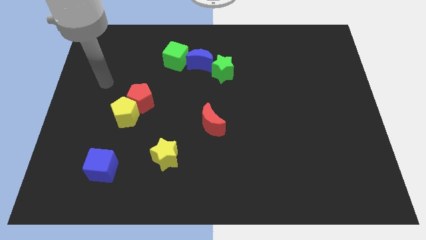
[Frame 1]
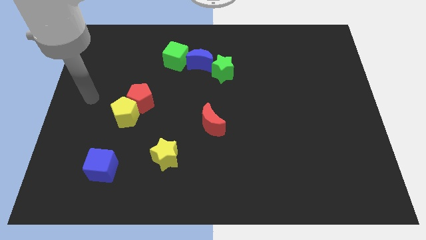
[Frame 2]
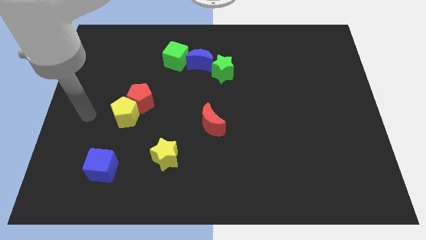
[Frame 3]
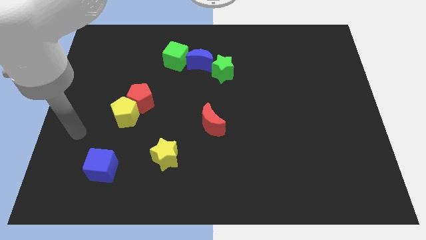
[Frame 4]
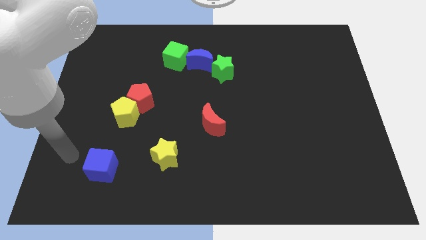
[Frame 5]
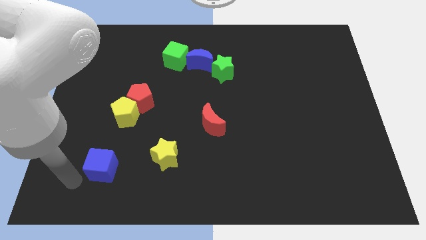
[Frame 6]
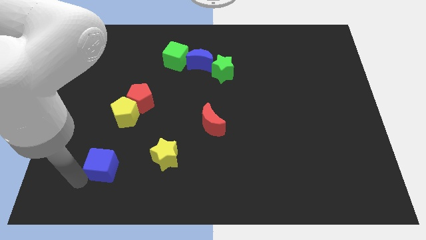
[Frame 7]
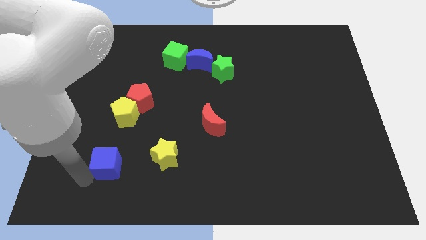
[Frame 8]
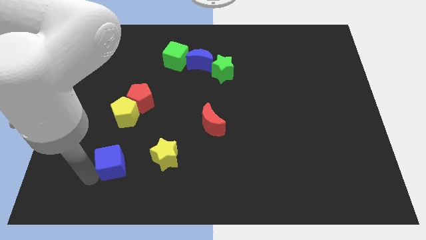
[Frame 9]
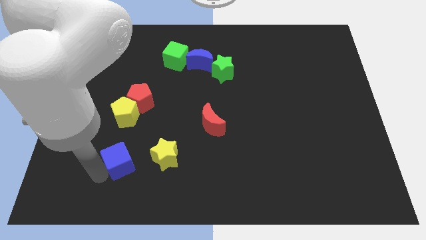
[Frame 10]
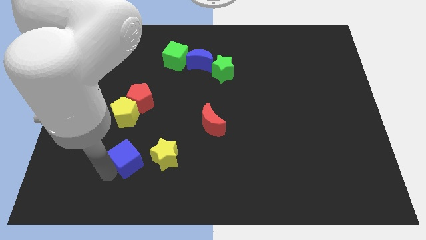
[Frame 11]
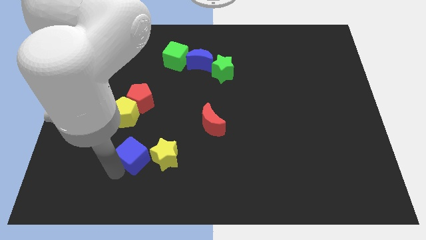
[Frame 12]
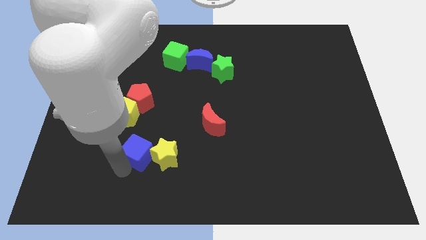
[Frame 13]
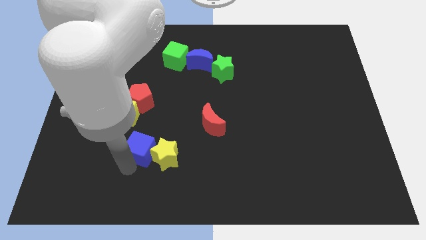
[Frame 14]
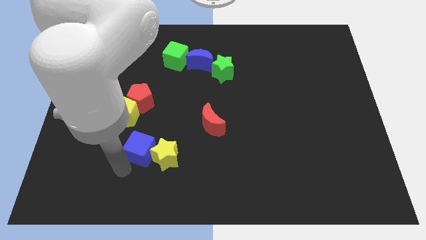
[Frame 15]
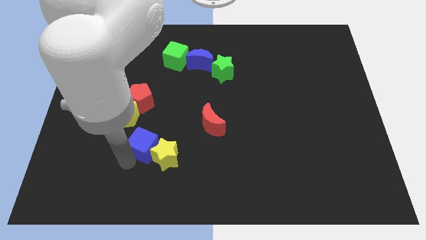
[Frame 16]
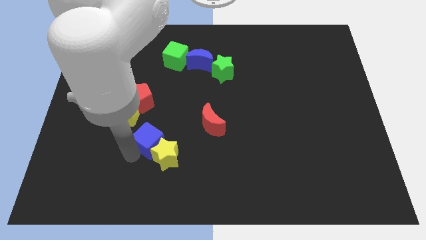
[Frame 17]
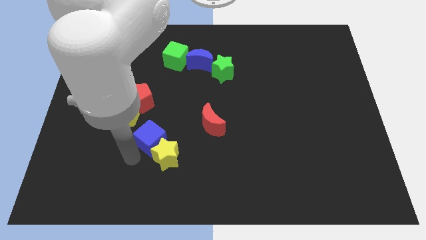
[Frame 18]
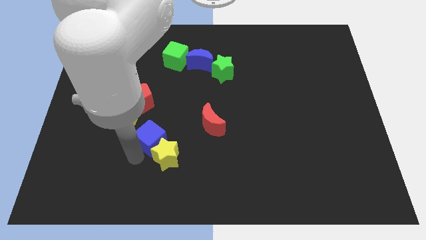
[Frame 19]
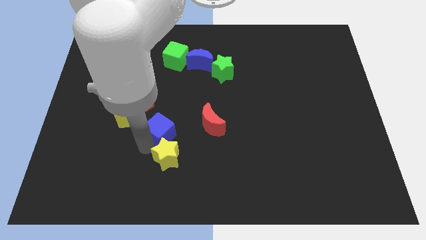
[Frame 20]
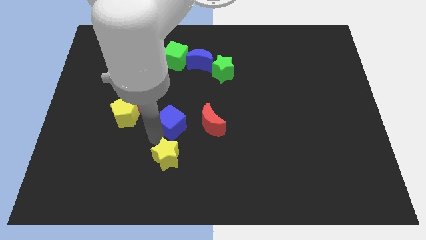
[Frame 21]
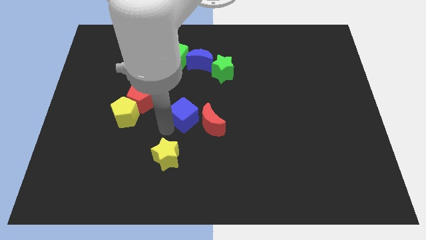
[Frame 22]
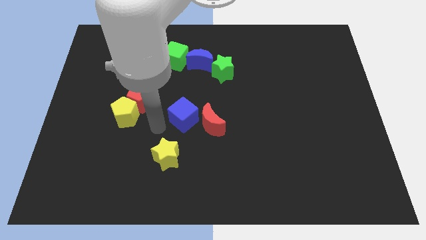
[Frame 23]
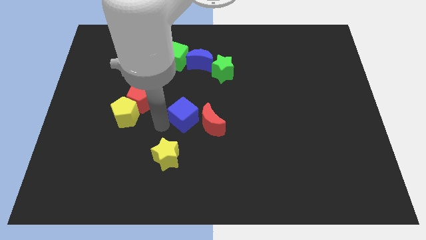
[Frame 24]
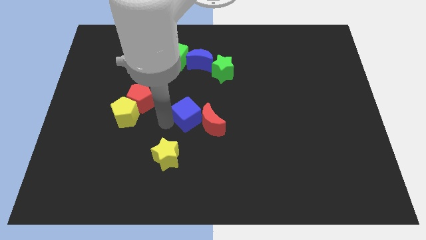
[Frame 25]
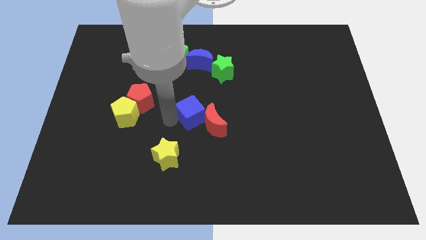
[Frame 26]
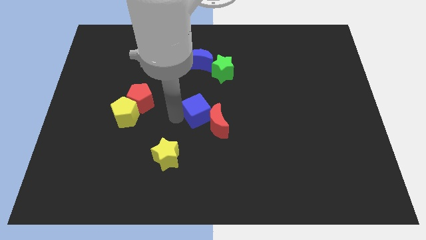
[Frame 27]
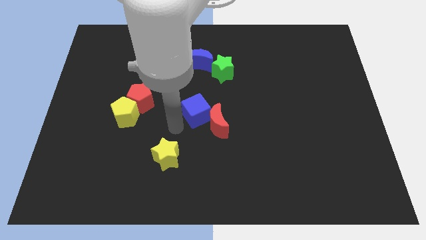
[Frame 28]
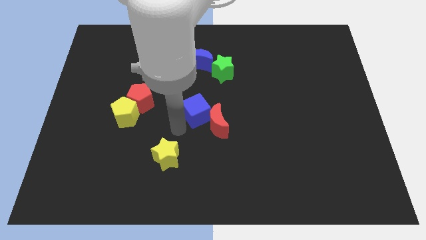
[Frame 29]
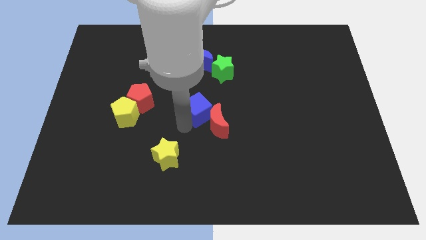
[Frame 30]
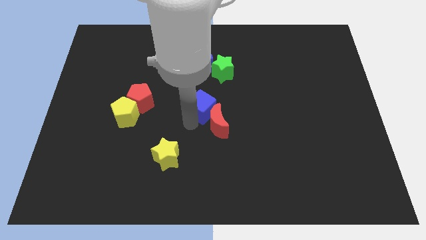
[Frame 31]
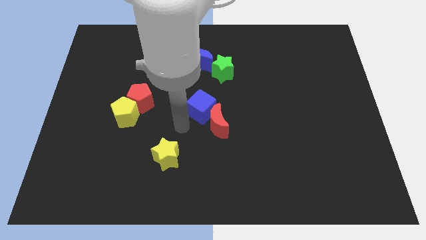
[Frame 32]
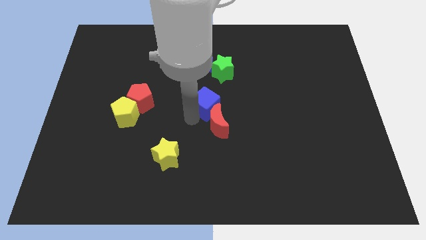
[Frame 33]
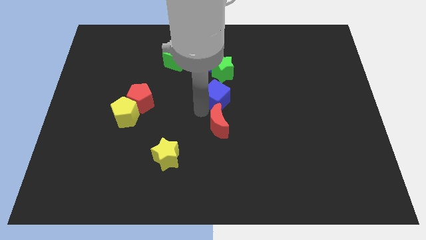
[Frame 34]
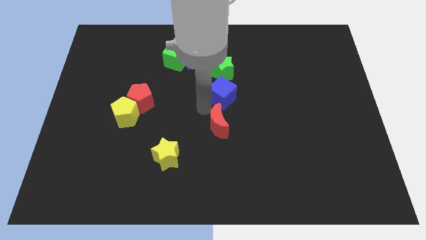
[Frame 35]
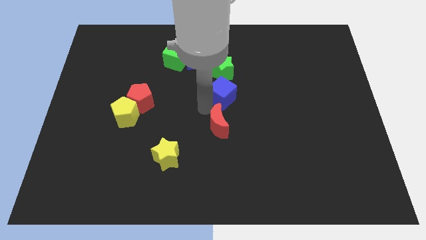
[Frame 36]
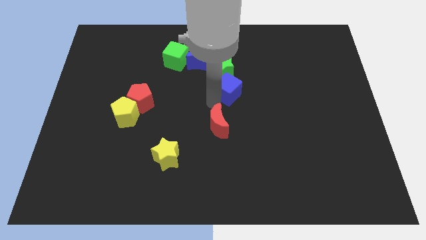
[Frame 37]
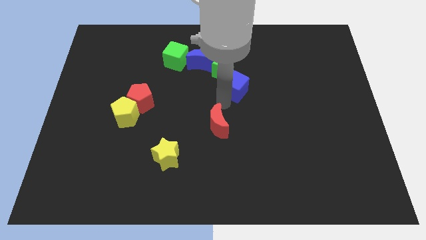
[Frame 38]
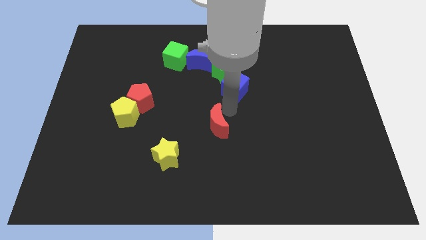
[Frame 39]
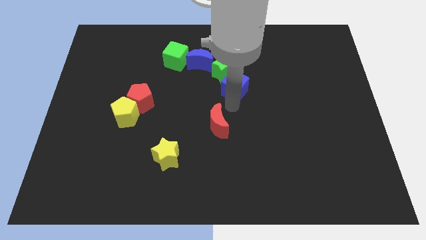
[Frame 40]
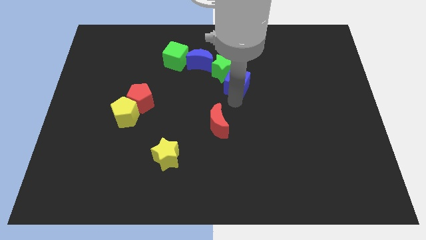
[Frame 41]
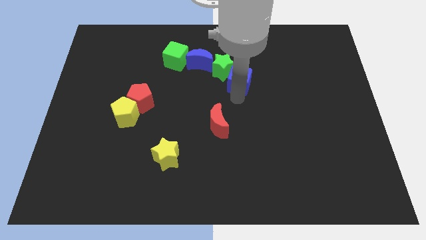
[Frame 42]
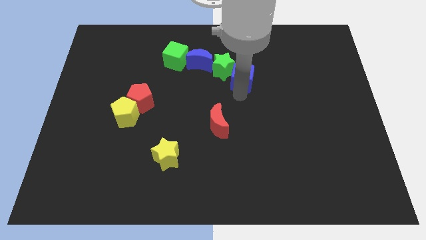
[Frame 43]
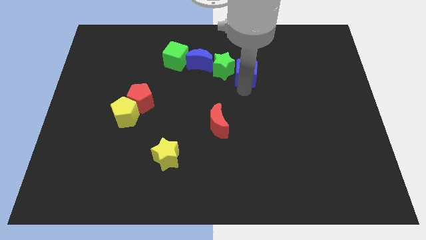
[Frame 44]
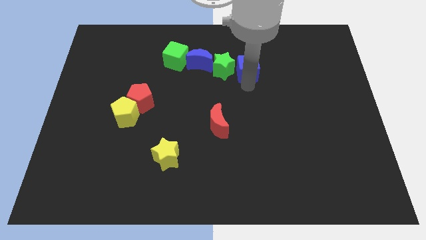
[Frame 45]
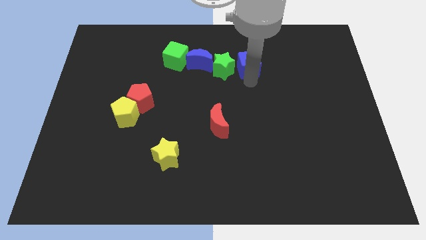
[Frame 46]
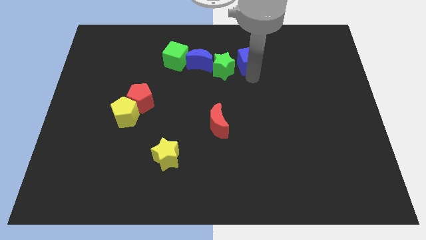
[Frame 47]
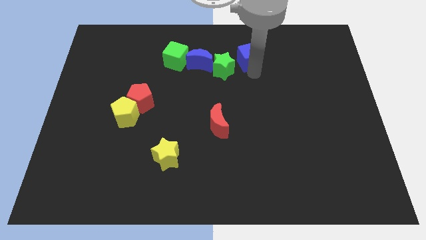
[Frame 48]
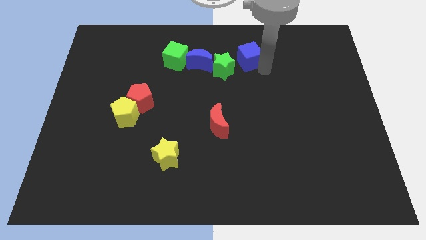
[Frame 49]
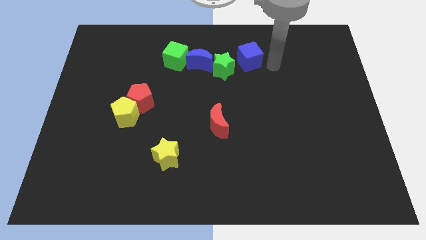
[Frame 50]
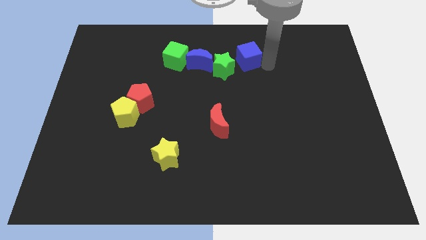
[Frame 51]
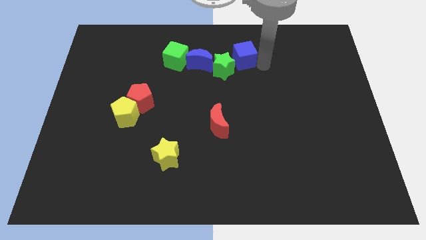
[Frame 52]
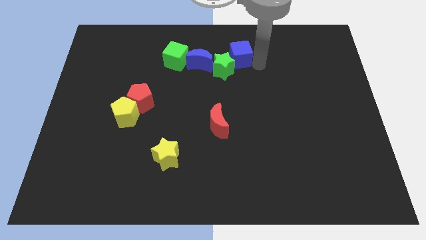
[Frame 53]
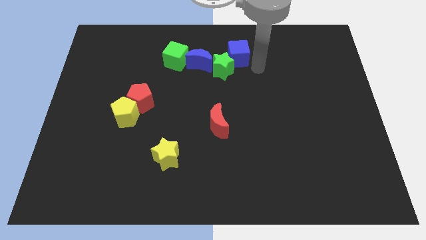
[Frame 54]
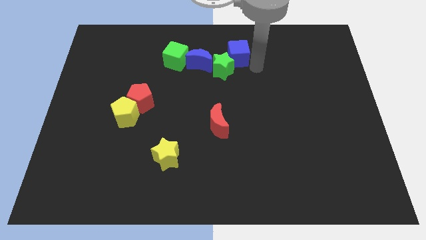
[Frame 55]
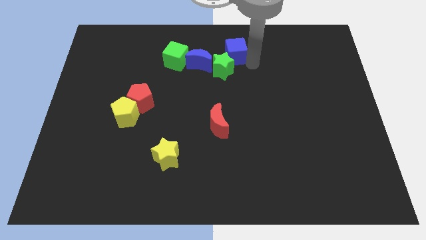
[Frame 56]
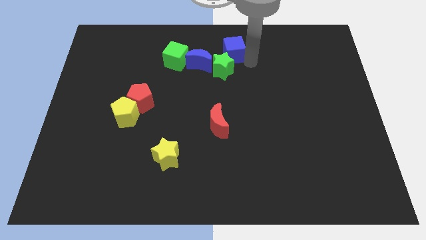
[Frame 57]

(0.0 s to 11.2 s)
move the blue cube to the top side

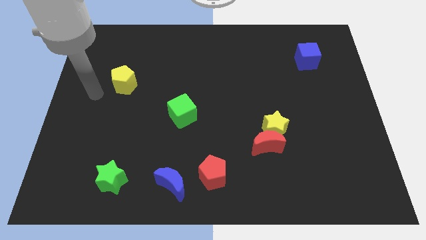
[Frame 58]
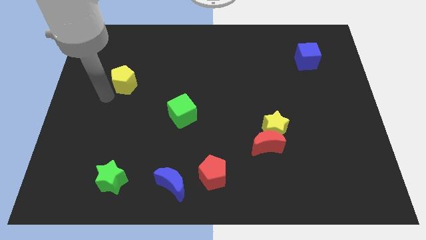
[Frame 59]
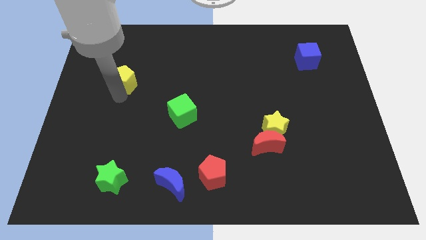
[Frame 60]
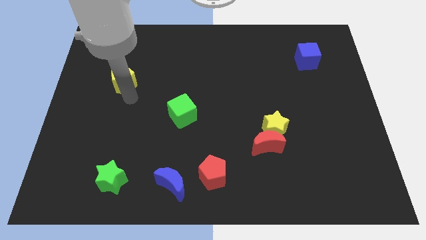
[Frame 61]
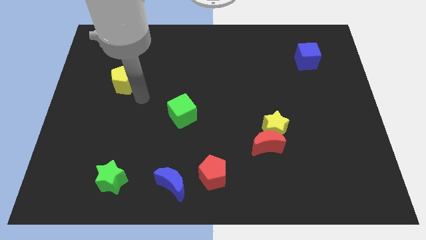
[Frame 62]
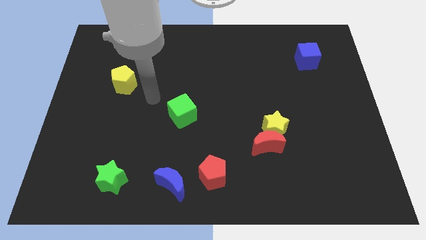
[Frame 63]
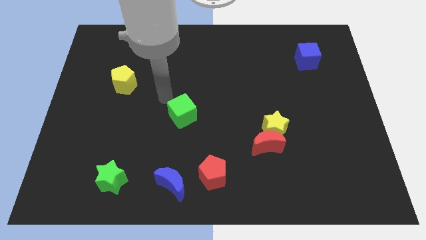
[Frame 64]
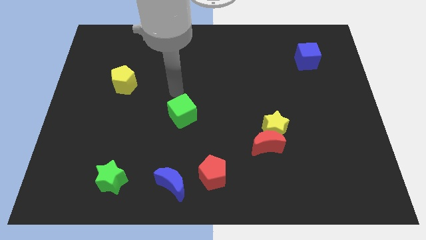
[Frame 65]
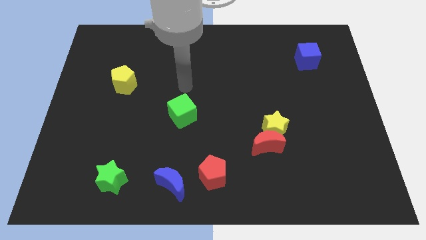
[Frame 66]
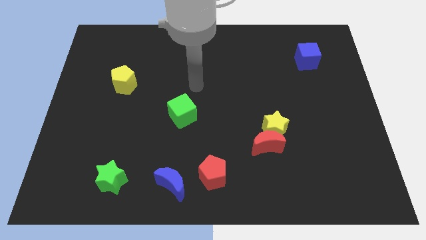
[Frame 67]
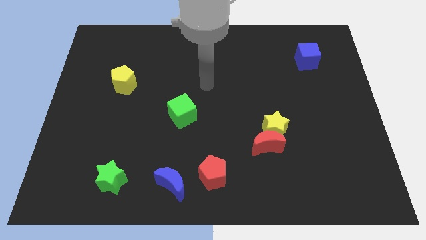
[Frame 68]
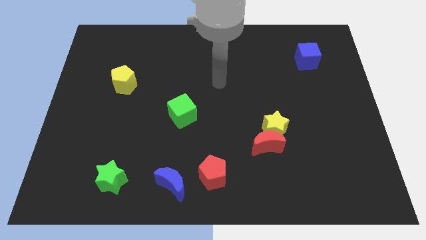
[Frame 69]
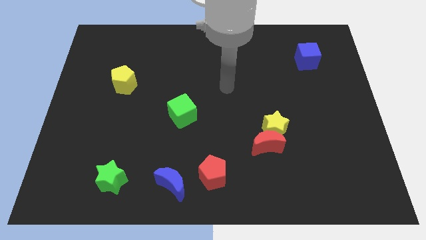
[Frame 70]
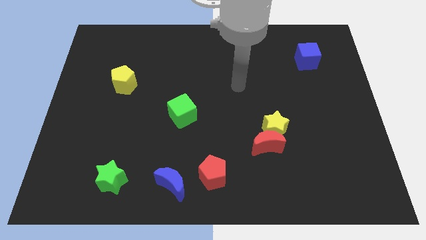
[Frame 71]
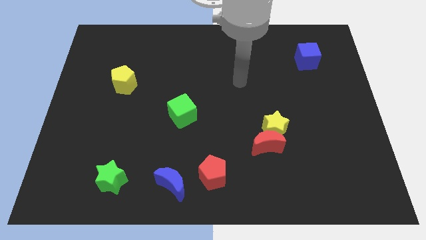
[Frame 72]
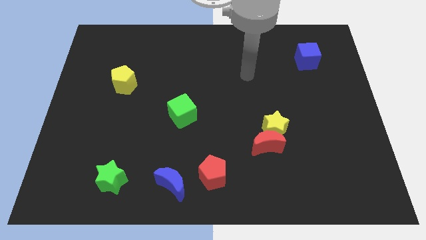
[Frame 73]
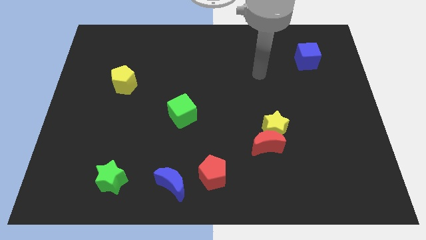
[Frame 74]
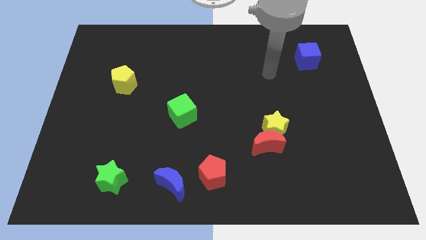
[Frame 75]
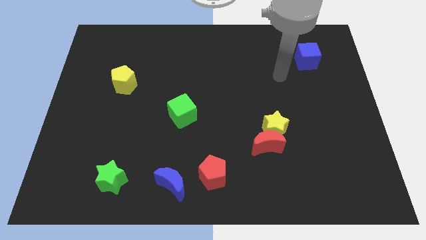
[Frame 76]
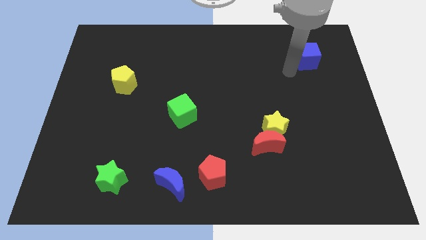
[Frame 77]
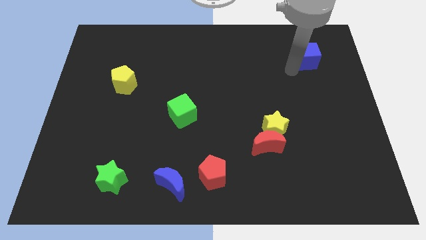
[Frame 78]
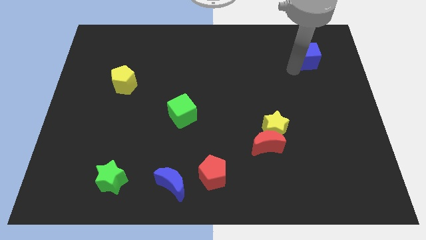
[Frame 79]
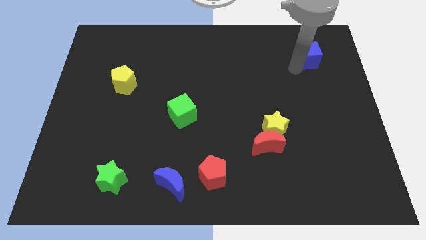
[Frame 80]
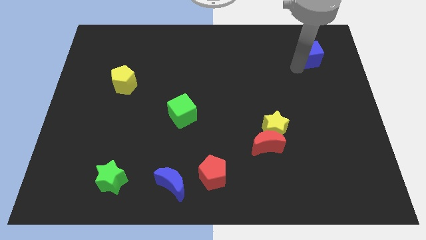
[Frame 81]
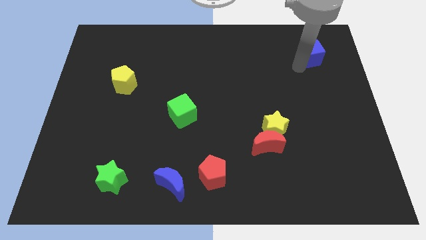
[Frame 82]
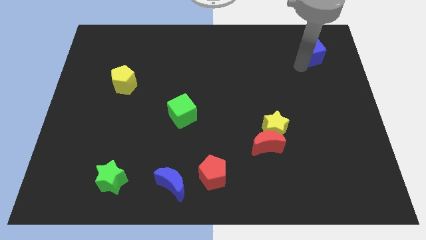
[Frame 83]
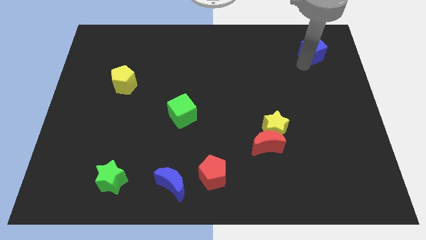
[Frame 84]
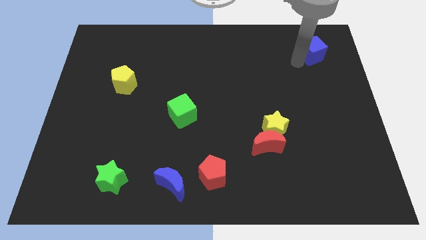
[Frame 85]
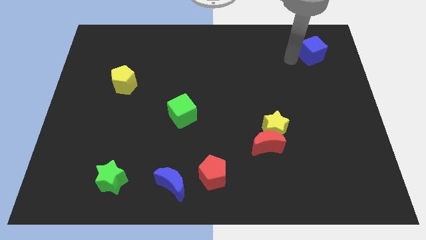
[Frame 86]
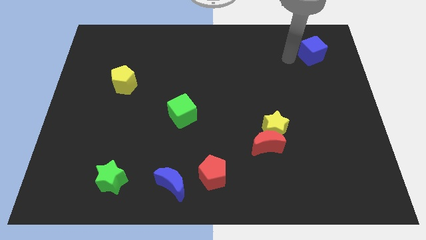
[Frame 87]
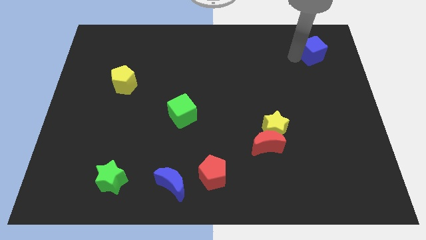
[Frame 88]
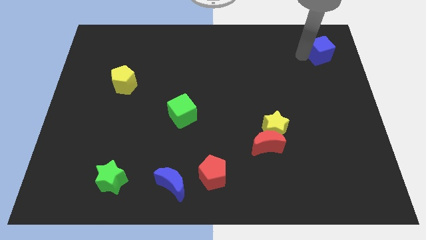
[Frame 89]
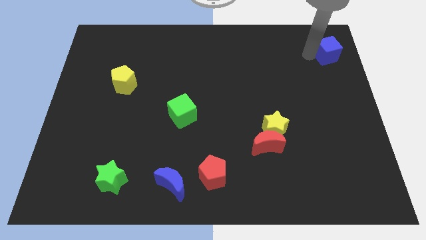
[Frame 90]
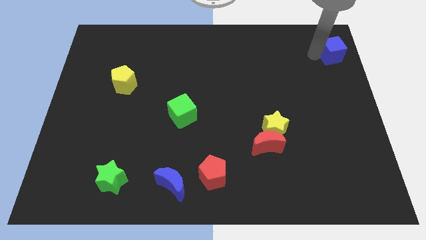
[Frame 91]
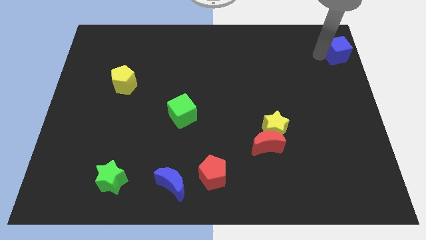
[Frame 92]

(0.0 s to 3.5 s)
push the blue cube to the top right corner
